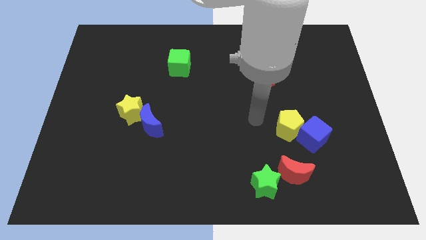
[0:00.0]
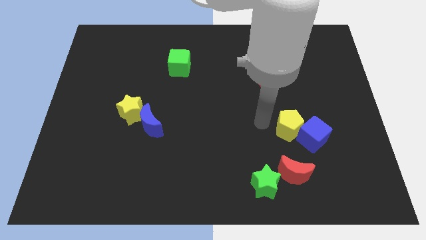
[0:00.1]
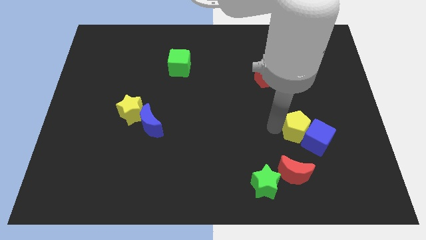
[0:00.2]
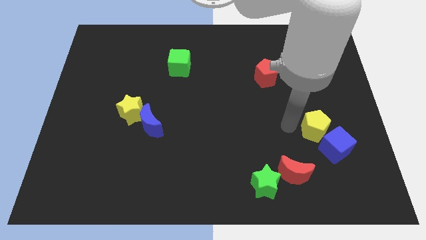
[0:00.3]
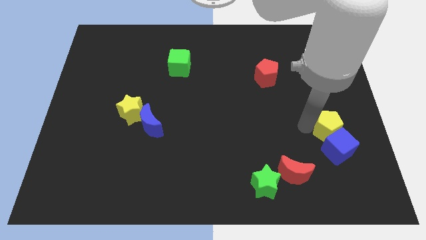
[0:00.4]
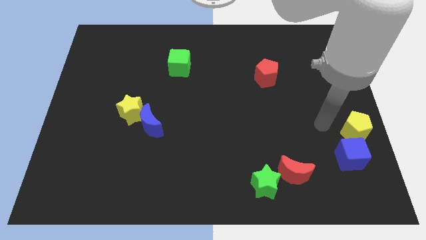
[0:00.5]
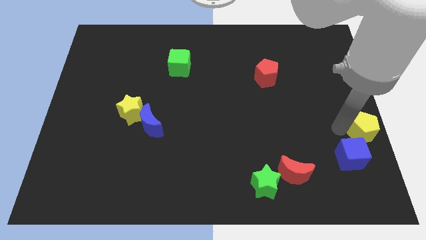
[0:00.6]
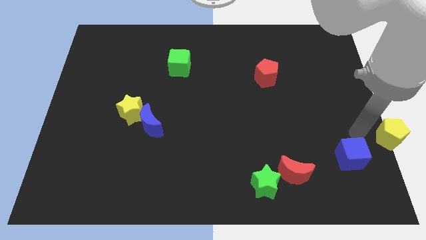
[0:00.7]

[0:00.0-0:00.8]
separate the blue cube from the yellow pentagon

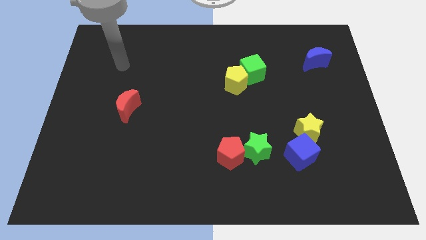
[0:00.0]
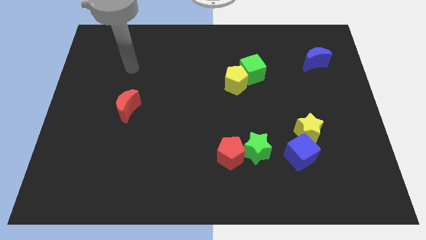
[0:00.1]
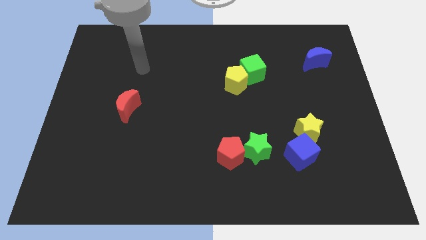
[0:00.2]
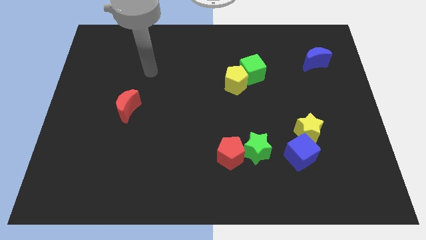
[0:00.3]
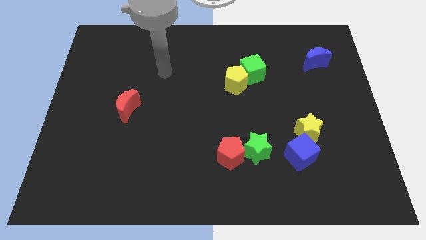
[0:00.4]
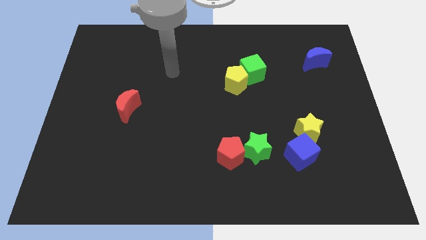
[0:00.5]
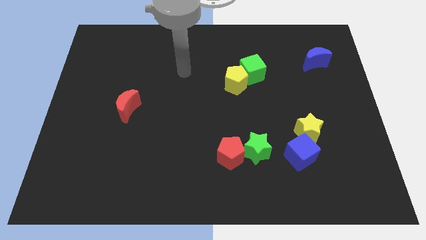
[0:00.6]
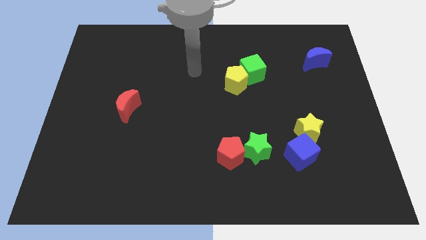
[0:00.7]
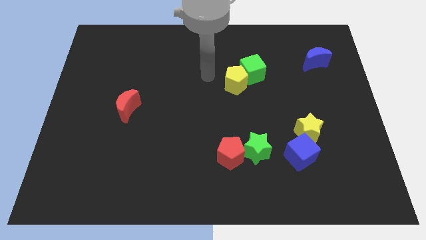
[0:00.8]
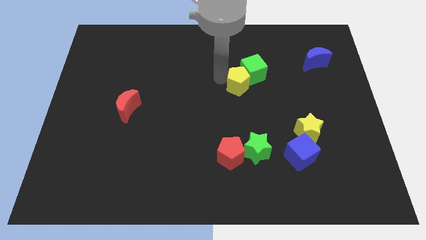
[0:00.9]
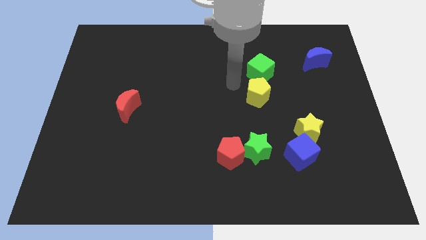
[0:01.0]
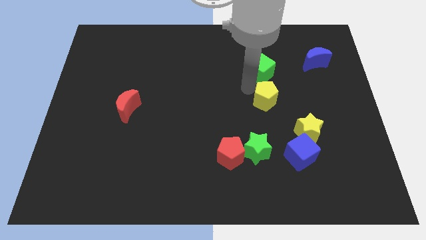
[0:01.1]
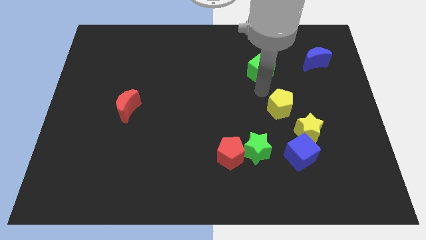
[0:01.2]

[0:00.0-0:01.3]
separate the green cube from the yellow pentagon

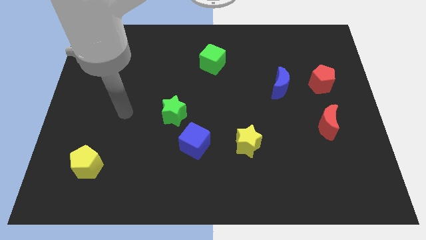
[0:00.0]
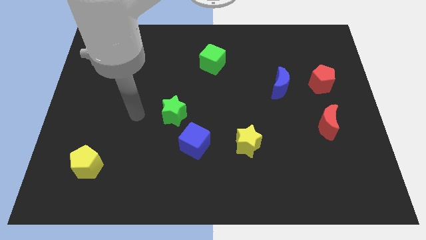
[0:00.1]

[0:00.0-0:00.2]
pull the blue cube apart from the green star

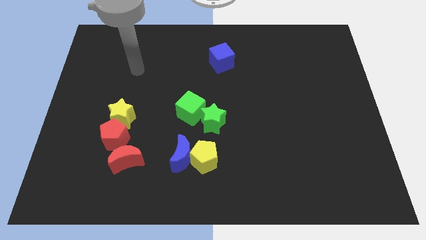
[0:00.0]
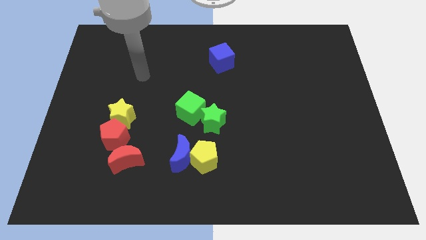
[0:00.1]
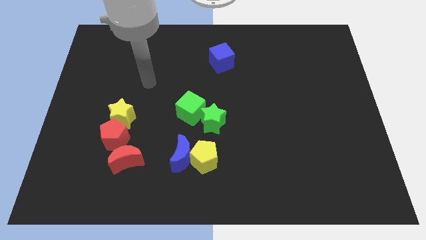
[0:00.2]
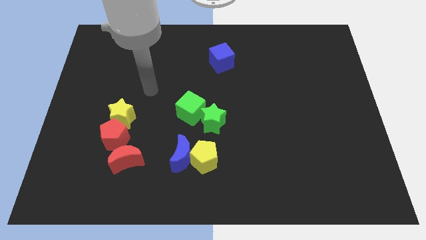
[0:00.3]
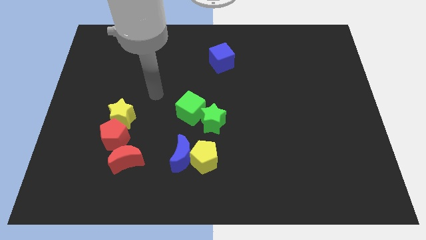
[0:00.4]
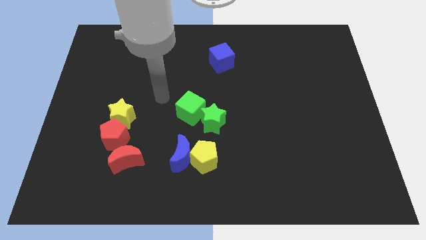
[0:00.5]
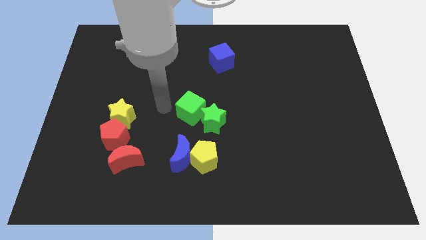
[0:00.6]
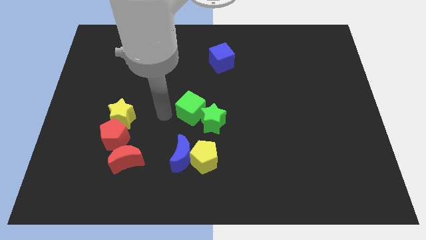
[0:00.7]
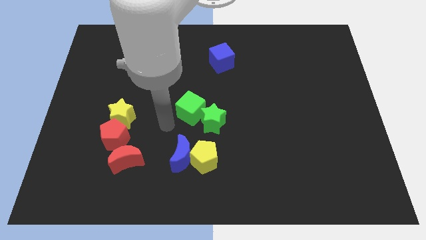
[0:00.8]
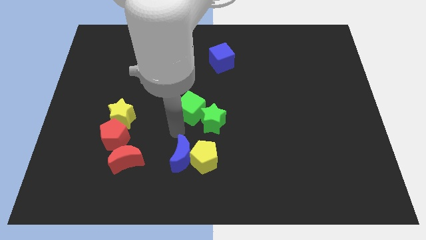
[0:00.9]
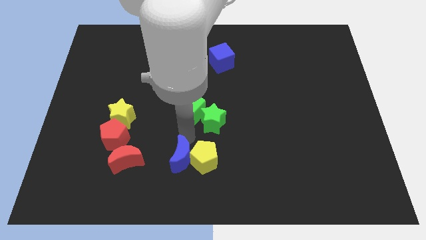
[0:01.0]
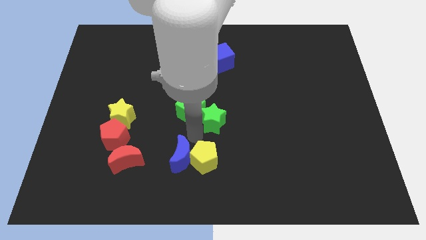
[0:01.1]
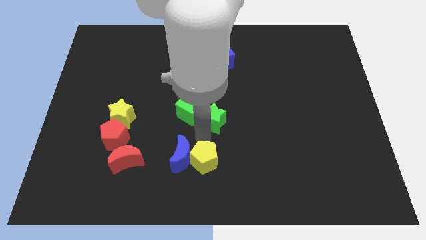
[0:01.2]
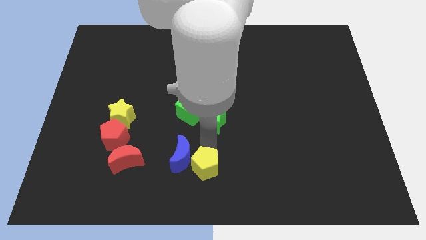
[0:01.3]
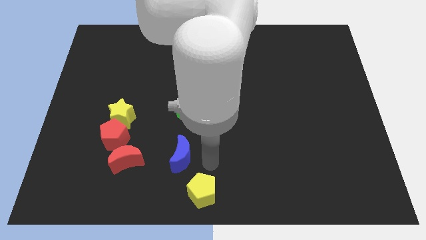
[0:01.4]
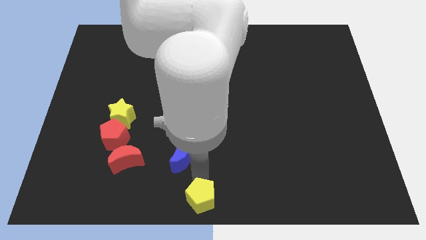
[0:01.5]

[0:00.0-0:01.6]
move the blue moon away from the yellow pentagon

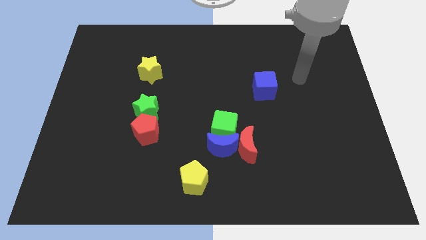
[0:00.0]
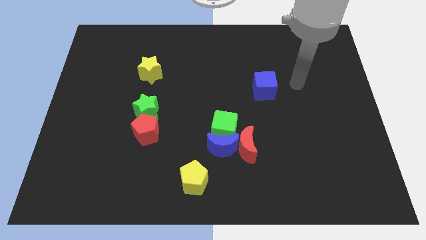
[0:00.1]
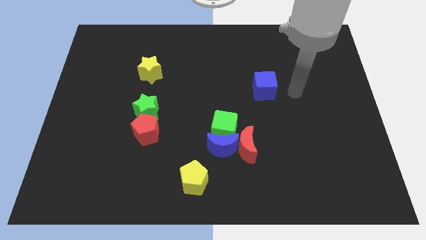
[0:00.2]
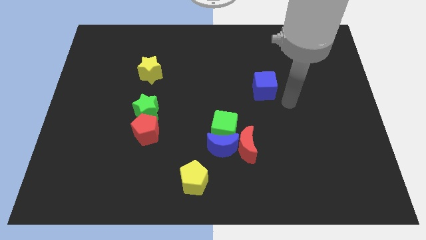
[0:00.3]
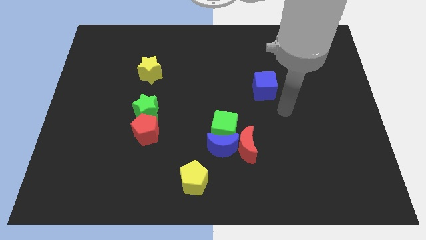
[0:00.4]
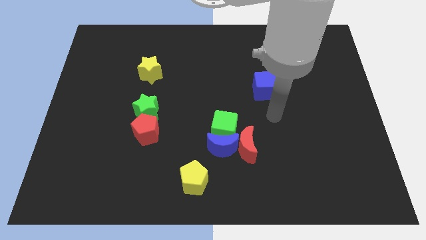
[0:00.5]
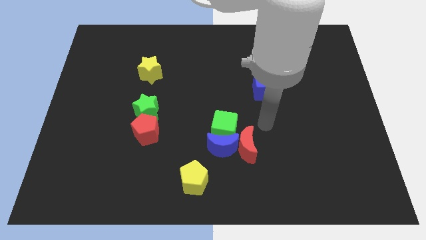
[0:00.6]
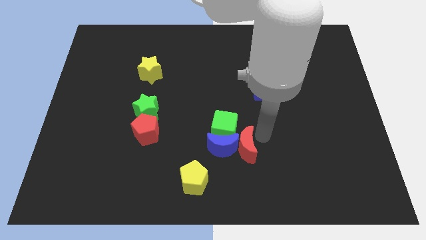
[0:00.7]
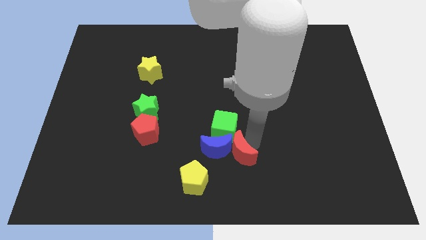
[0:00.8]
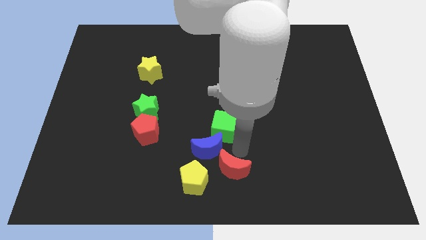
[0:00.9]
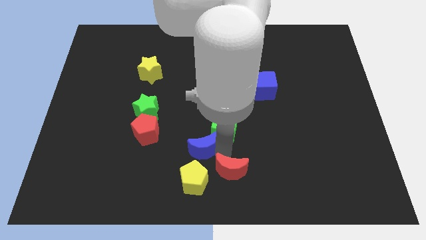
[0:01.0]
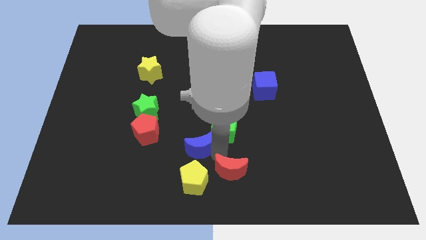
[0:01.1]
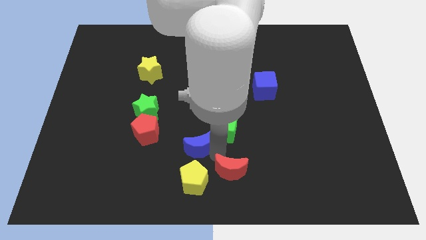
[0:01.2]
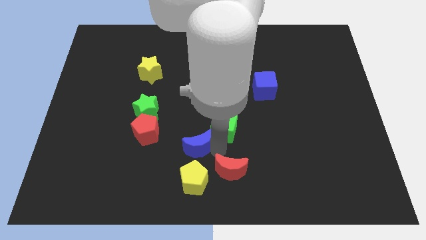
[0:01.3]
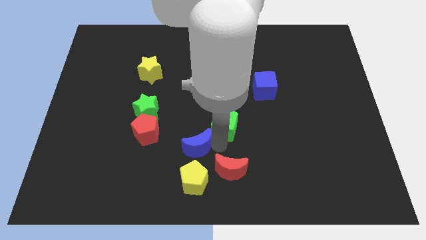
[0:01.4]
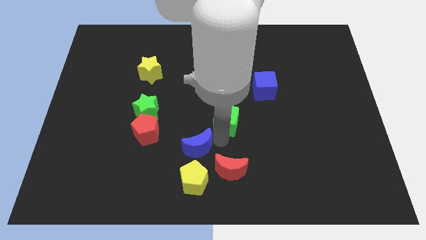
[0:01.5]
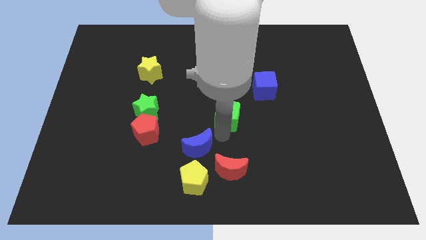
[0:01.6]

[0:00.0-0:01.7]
separate the green cube from the blue moon and red moon

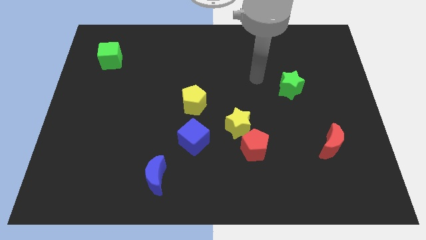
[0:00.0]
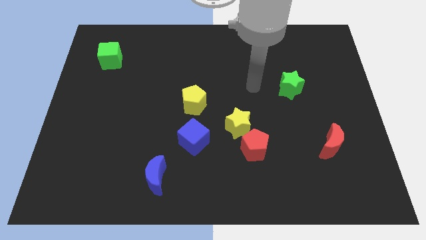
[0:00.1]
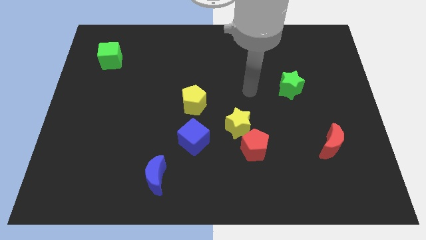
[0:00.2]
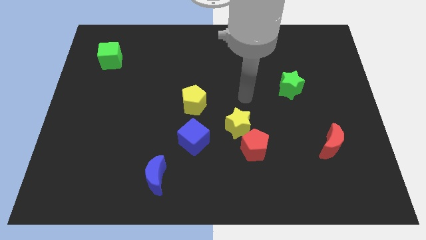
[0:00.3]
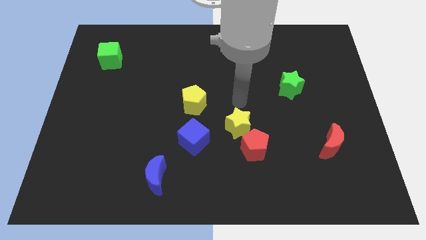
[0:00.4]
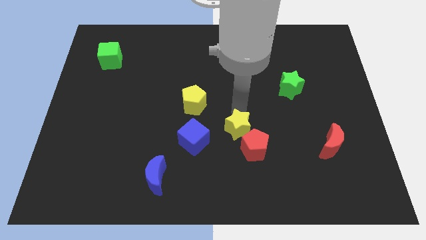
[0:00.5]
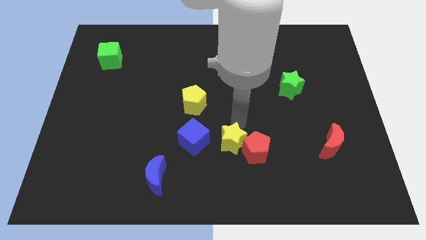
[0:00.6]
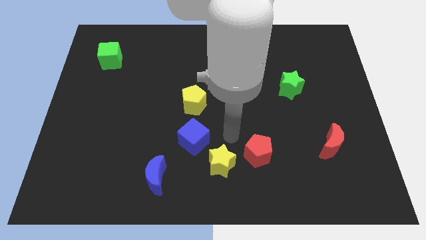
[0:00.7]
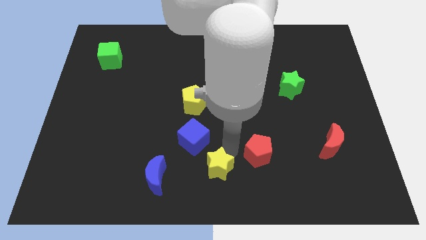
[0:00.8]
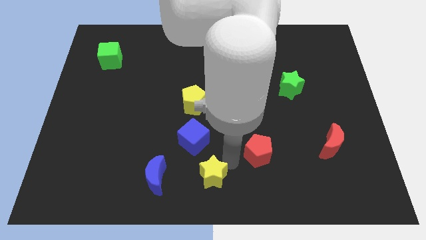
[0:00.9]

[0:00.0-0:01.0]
move the red pentagon away from the yellow star

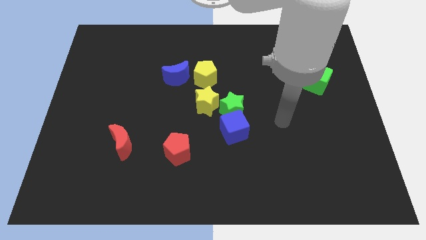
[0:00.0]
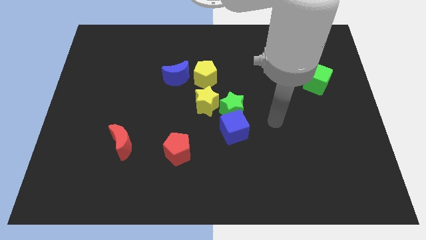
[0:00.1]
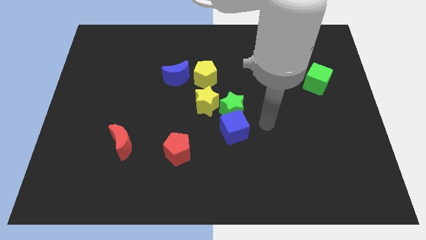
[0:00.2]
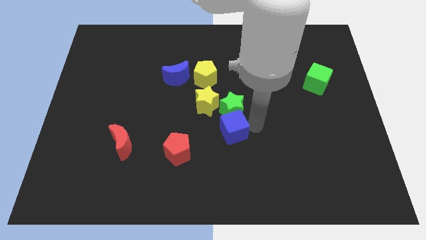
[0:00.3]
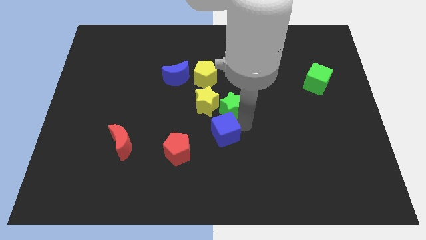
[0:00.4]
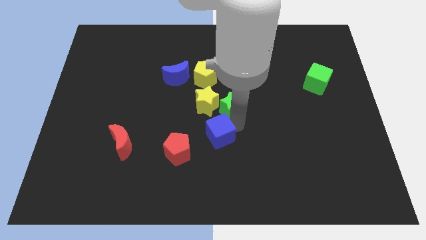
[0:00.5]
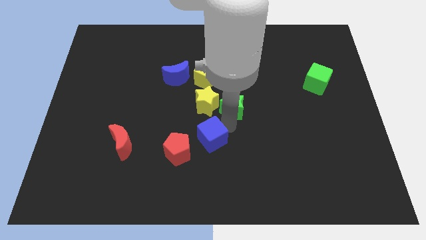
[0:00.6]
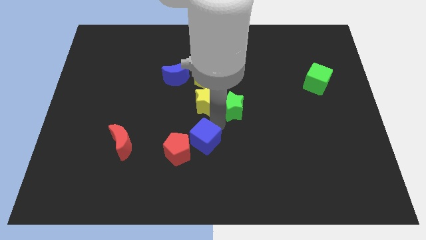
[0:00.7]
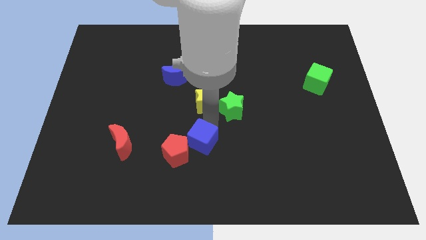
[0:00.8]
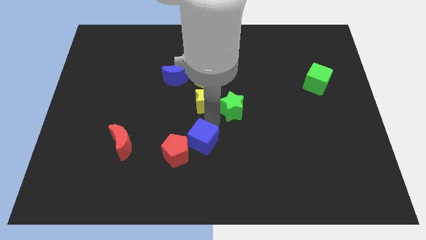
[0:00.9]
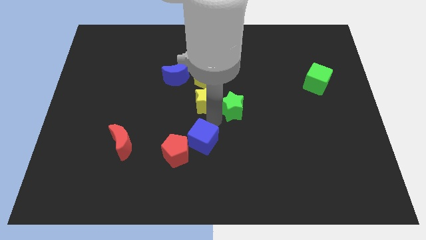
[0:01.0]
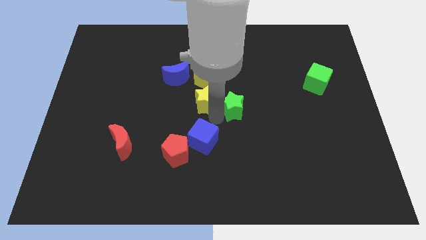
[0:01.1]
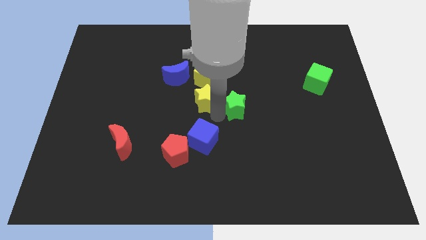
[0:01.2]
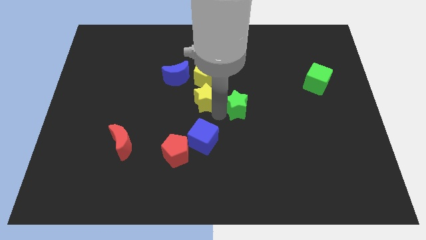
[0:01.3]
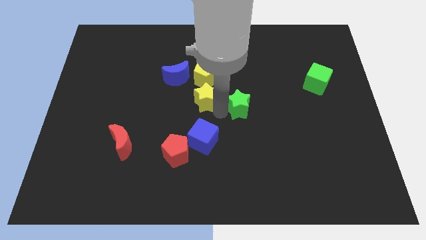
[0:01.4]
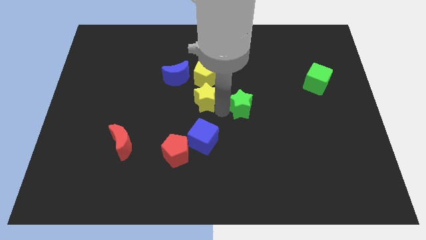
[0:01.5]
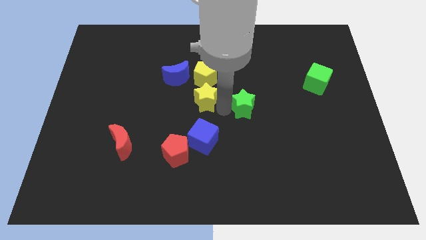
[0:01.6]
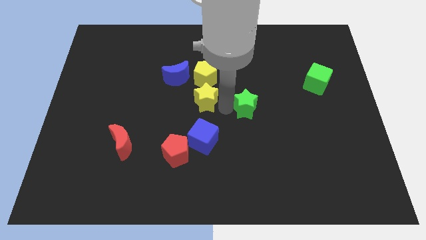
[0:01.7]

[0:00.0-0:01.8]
separate the green star from the blue cube and yellow star

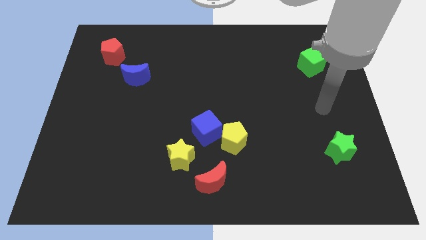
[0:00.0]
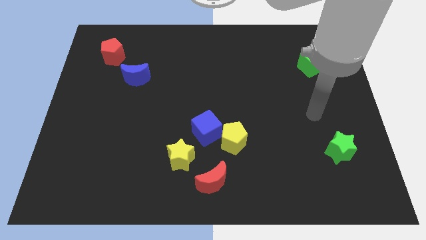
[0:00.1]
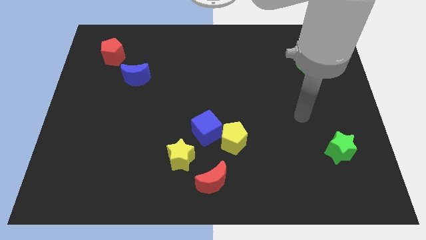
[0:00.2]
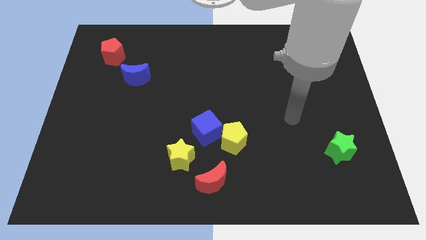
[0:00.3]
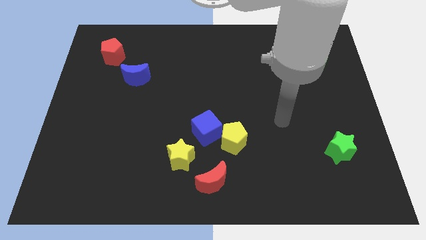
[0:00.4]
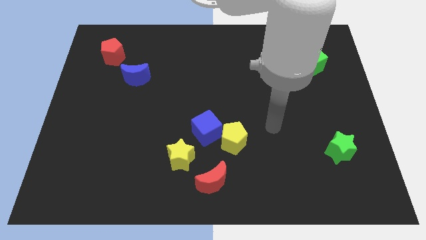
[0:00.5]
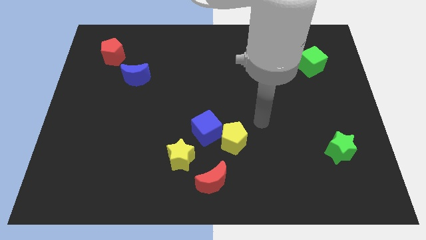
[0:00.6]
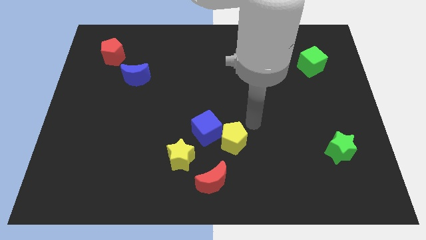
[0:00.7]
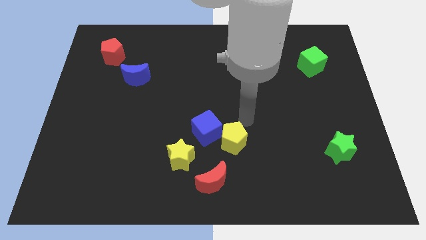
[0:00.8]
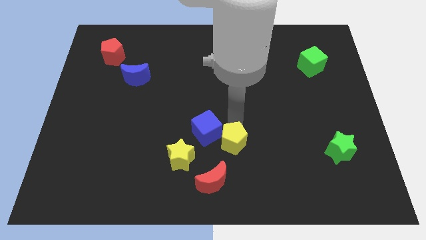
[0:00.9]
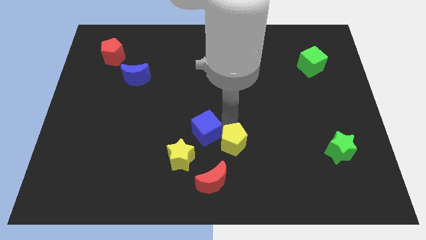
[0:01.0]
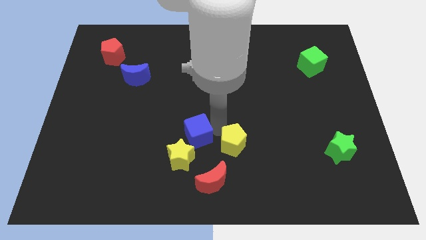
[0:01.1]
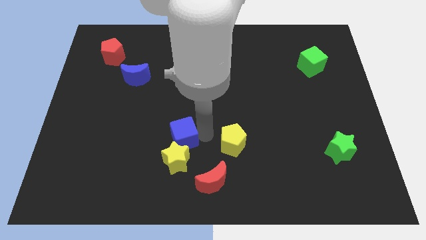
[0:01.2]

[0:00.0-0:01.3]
separate the yellow pentagon from the blue cube
